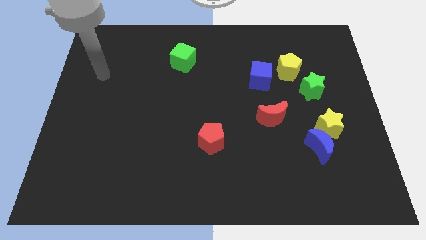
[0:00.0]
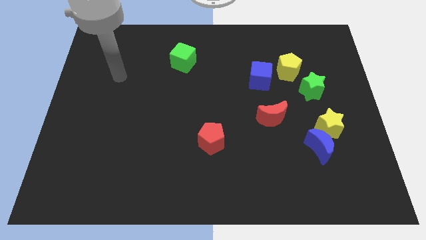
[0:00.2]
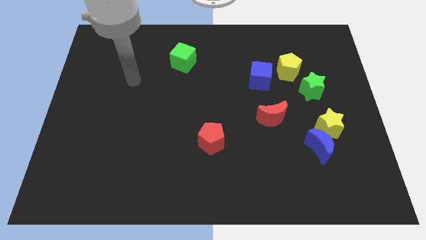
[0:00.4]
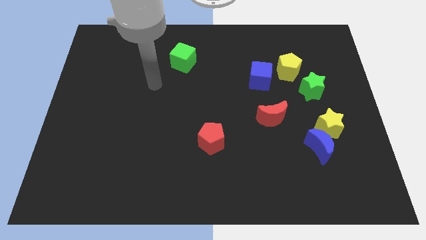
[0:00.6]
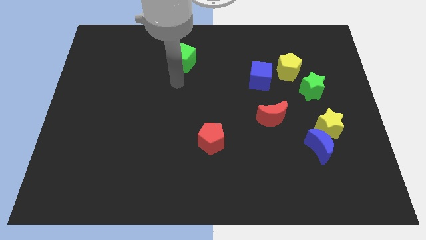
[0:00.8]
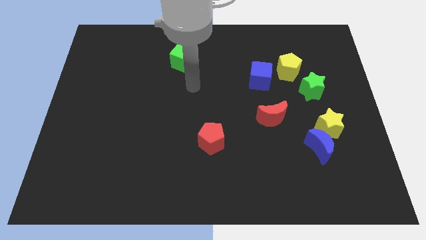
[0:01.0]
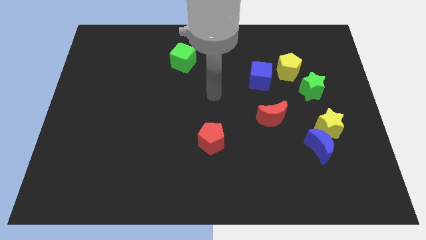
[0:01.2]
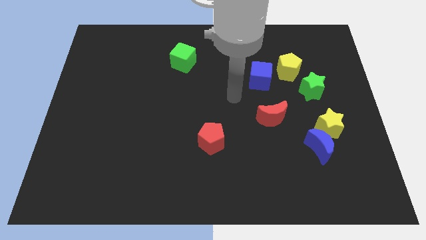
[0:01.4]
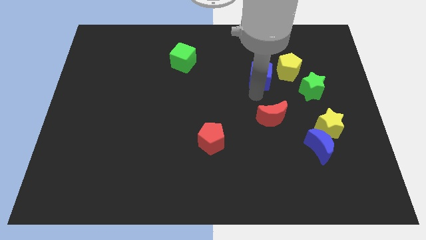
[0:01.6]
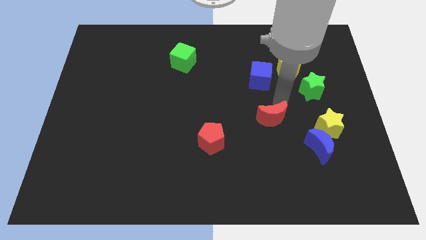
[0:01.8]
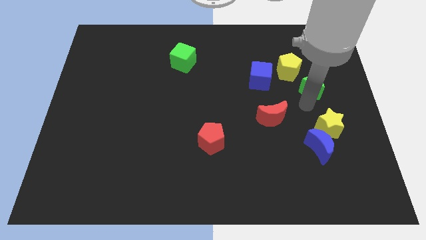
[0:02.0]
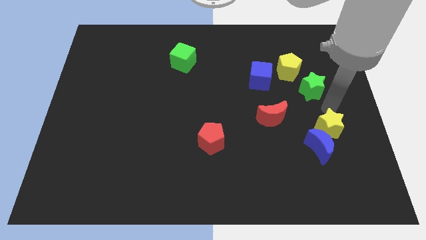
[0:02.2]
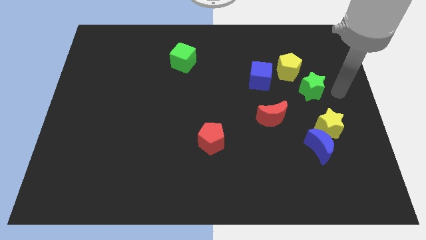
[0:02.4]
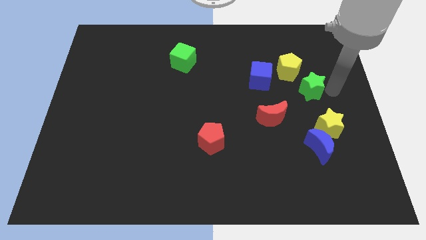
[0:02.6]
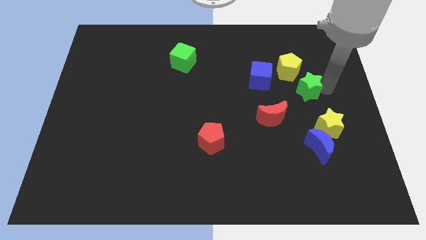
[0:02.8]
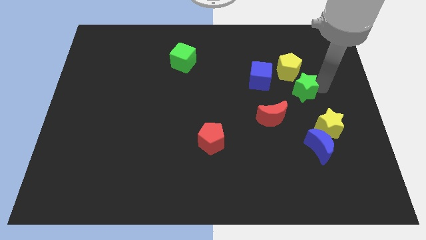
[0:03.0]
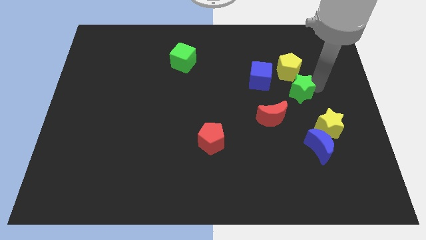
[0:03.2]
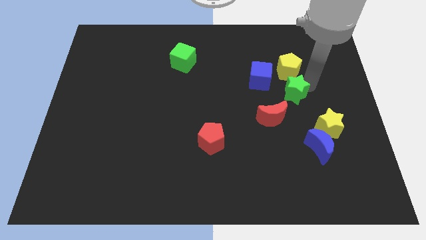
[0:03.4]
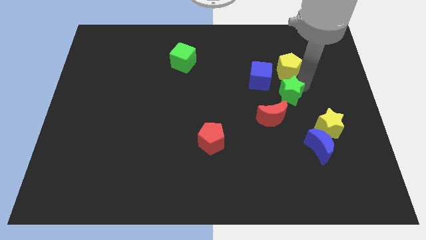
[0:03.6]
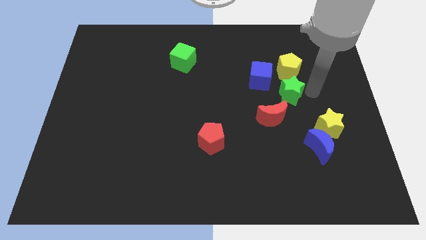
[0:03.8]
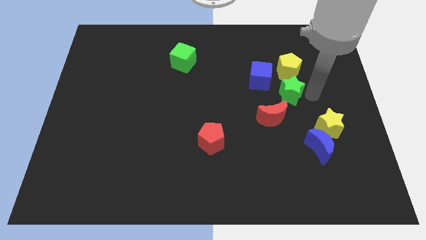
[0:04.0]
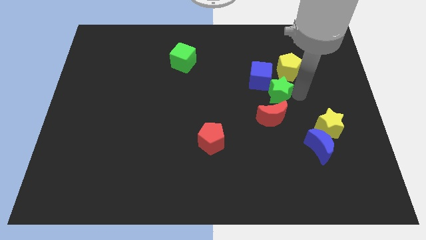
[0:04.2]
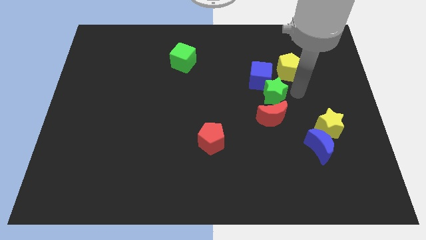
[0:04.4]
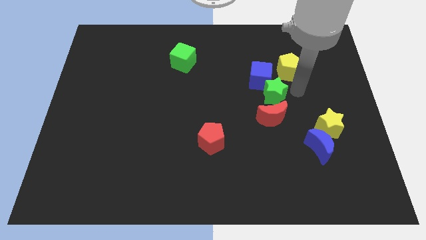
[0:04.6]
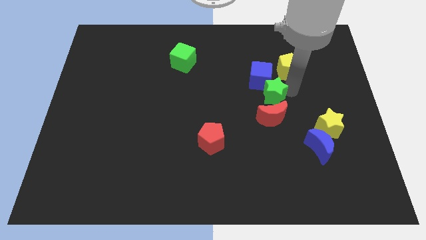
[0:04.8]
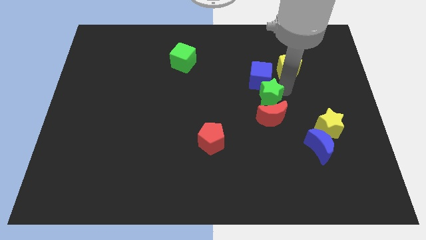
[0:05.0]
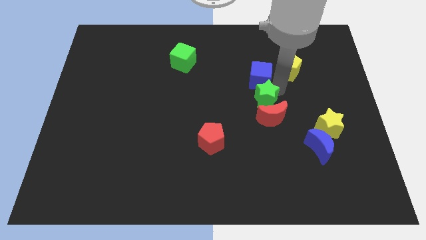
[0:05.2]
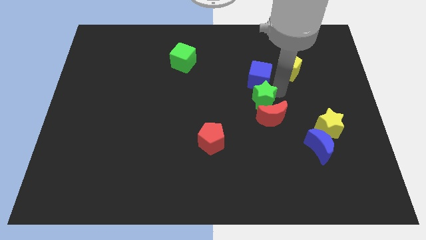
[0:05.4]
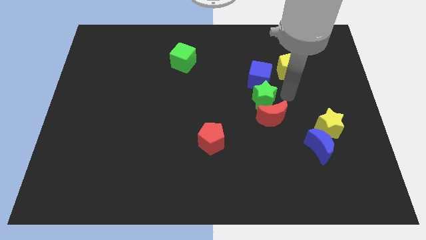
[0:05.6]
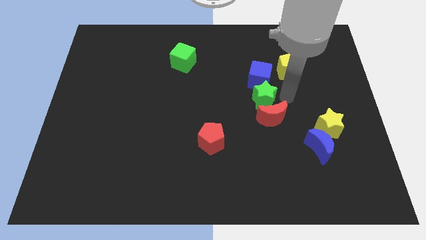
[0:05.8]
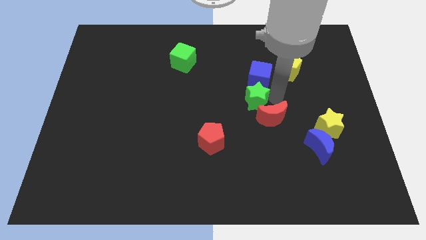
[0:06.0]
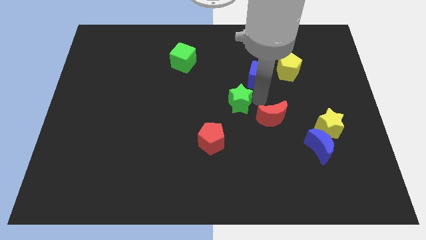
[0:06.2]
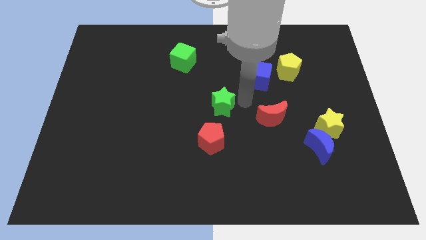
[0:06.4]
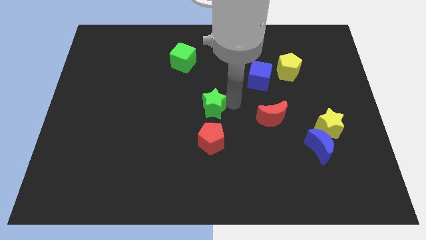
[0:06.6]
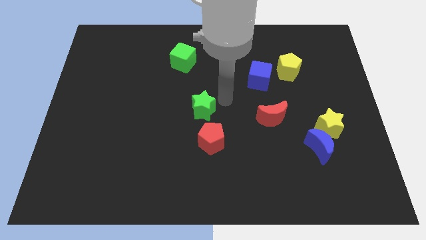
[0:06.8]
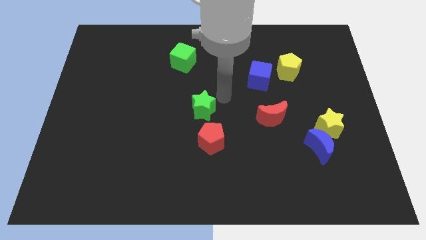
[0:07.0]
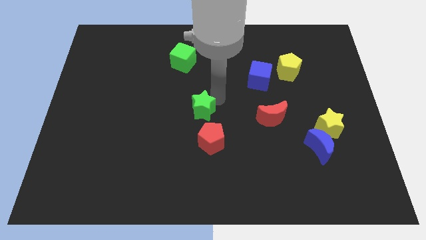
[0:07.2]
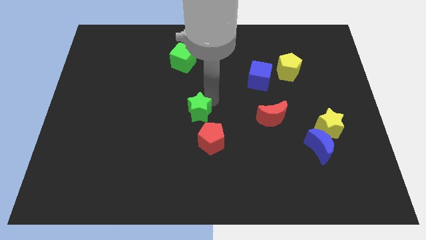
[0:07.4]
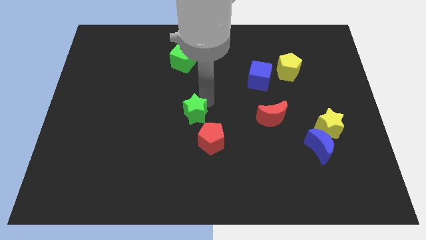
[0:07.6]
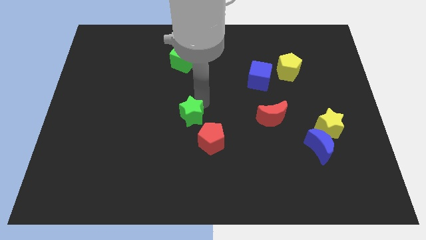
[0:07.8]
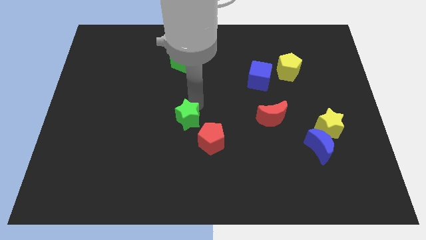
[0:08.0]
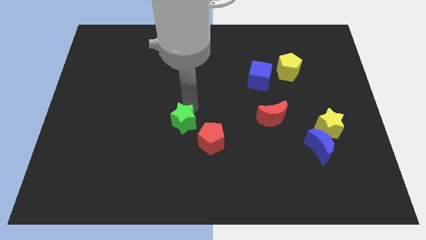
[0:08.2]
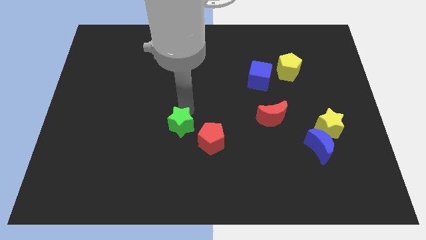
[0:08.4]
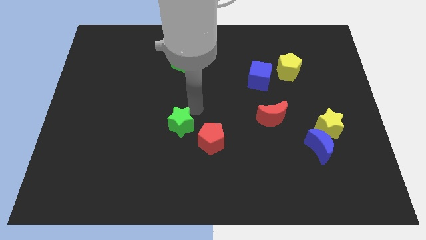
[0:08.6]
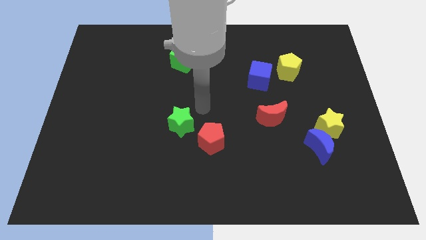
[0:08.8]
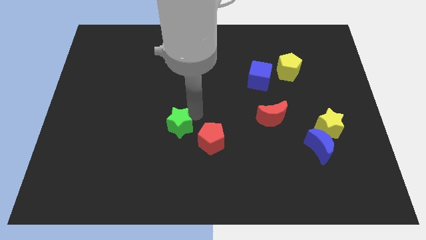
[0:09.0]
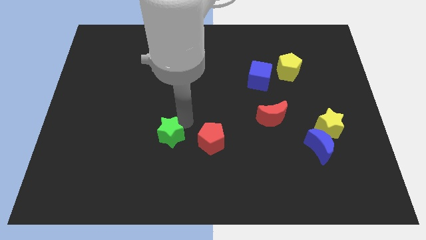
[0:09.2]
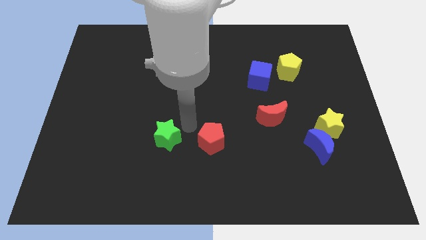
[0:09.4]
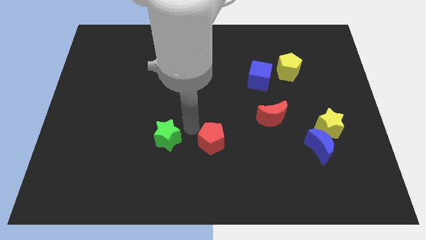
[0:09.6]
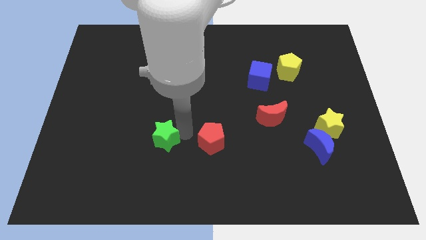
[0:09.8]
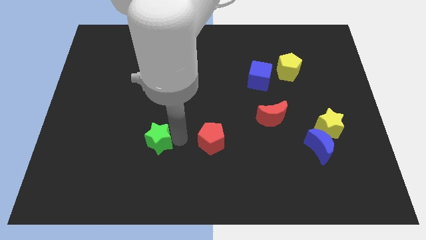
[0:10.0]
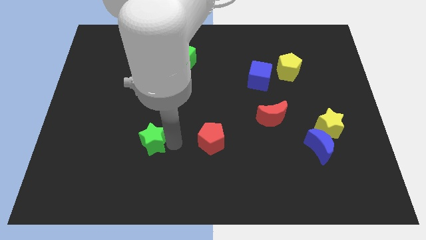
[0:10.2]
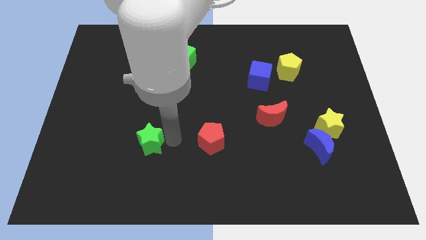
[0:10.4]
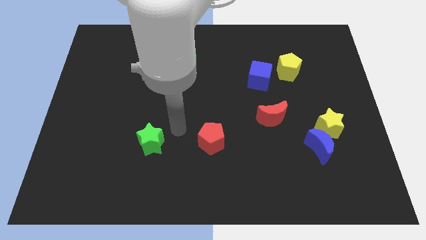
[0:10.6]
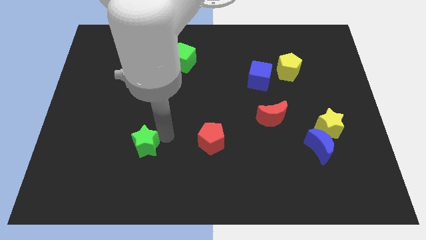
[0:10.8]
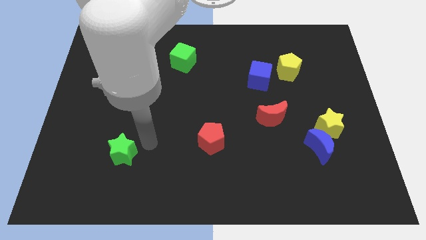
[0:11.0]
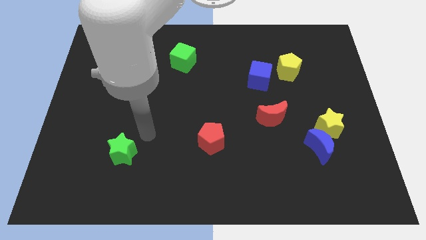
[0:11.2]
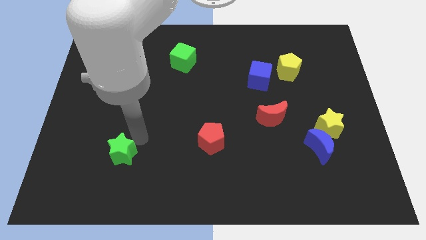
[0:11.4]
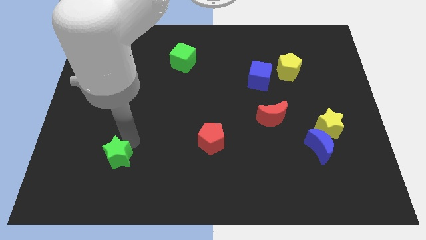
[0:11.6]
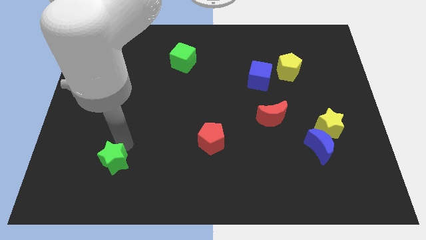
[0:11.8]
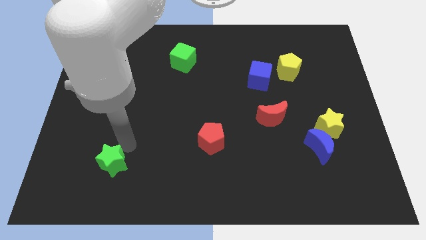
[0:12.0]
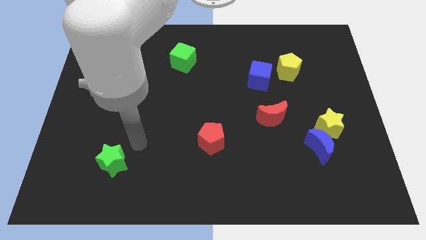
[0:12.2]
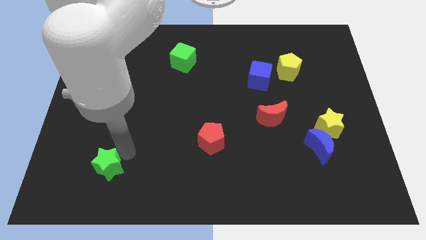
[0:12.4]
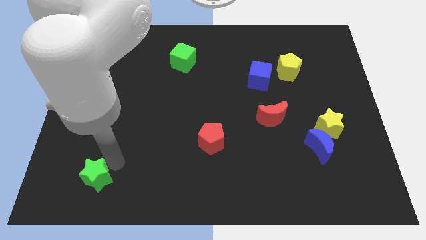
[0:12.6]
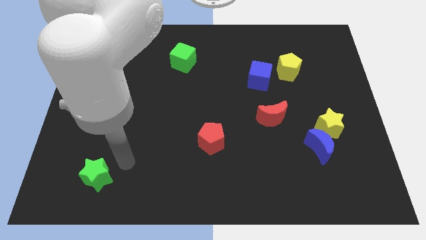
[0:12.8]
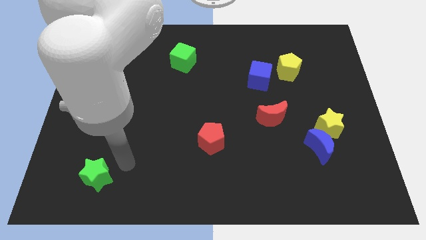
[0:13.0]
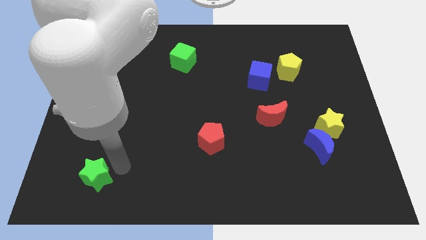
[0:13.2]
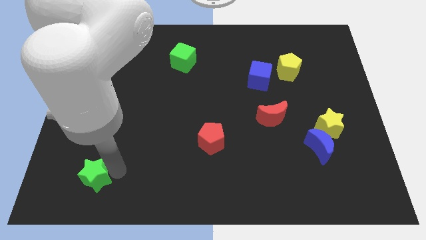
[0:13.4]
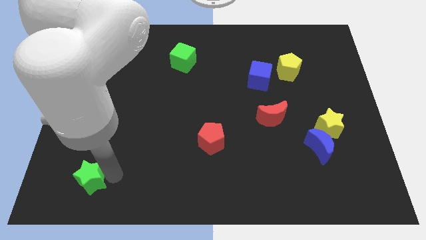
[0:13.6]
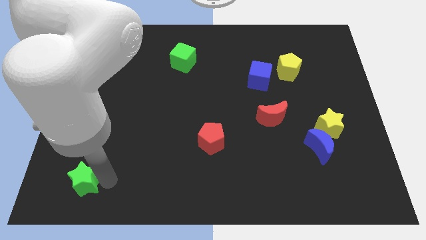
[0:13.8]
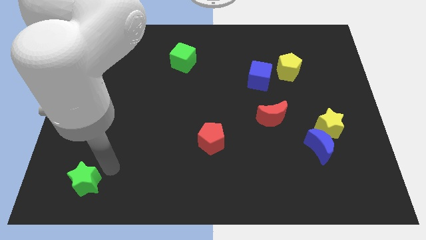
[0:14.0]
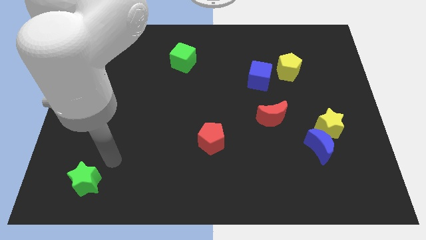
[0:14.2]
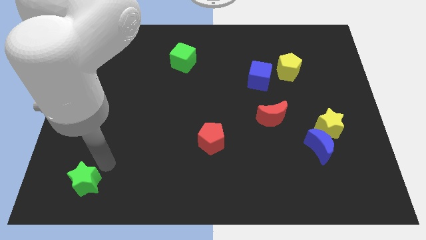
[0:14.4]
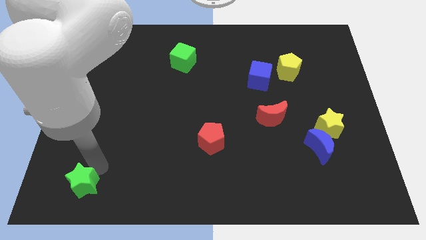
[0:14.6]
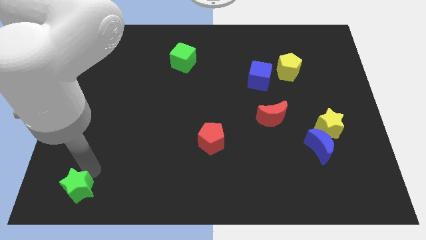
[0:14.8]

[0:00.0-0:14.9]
push the green star to the bottom left
